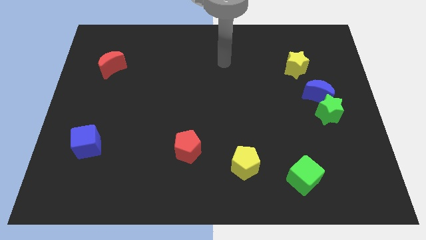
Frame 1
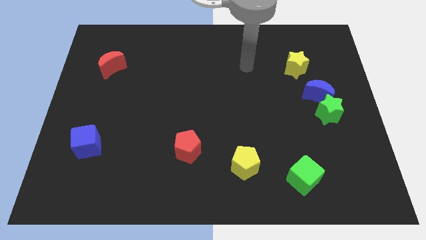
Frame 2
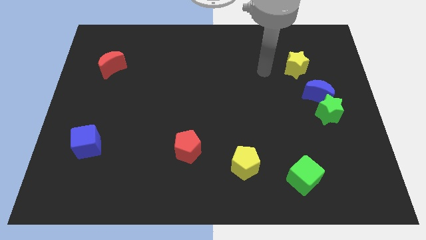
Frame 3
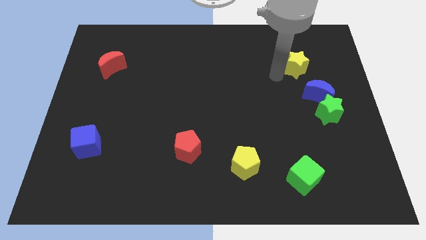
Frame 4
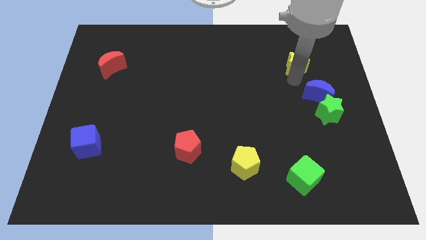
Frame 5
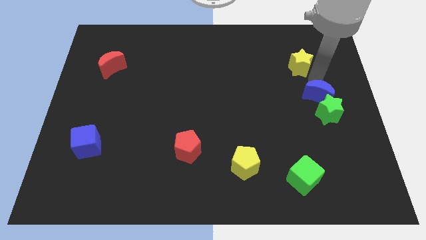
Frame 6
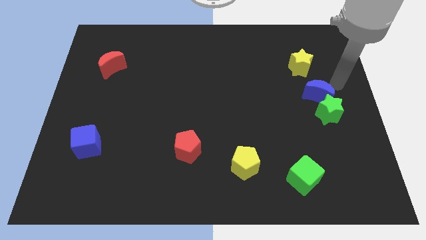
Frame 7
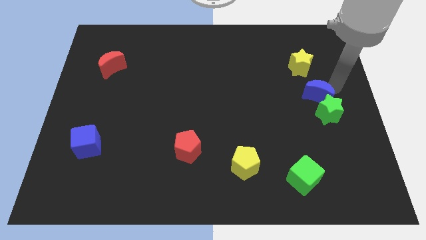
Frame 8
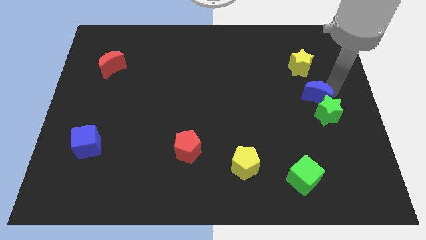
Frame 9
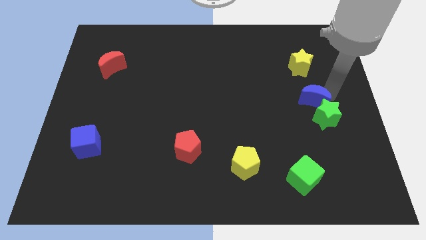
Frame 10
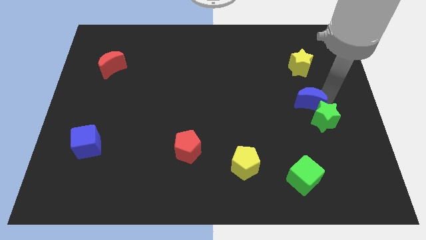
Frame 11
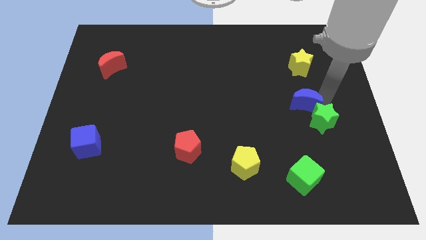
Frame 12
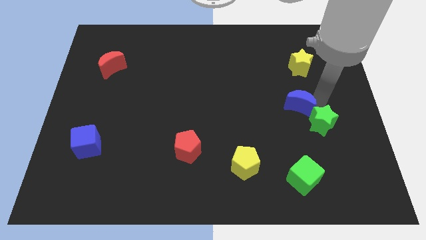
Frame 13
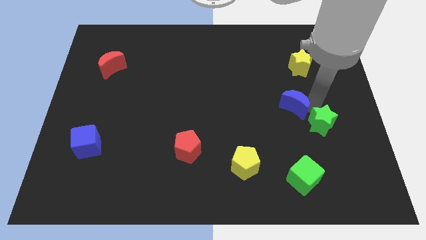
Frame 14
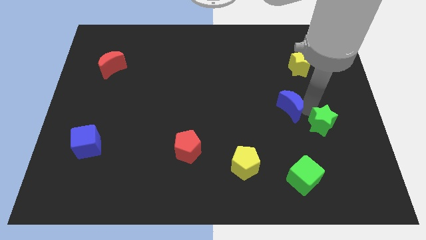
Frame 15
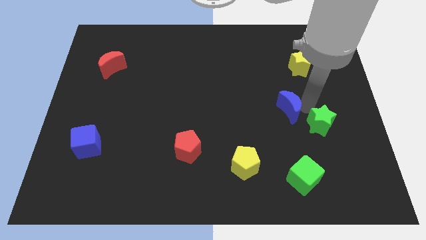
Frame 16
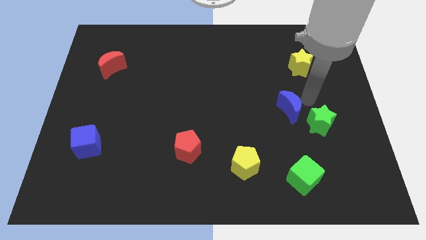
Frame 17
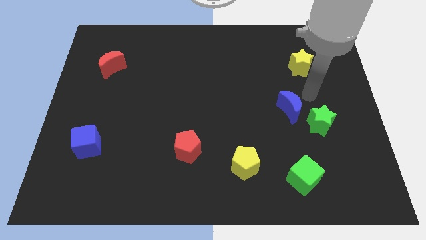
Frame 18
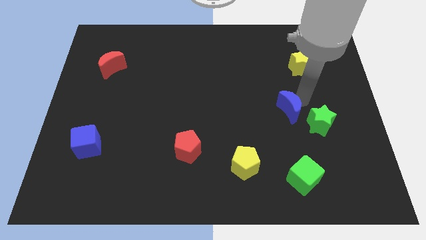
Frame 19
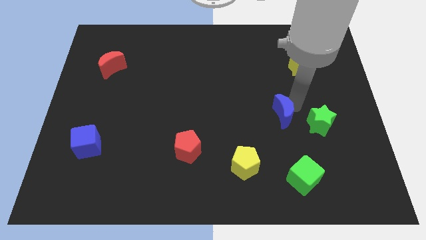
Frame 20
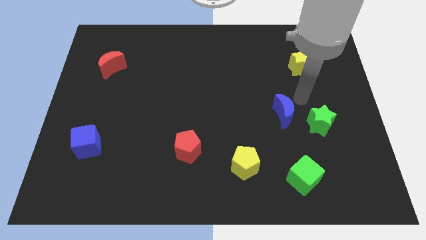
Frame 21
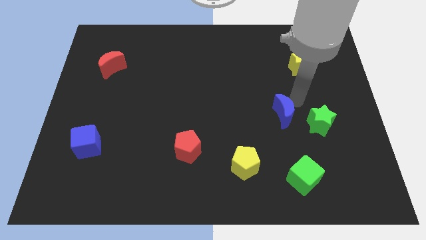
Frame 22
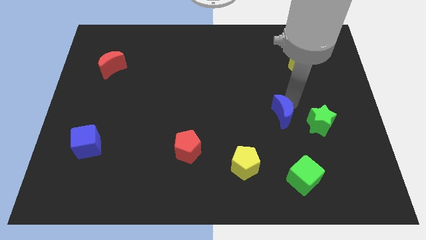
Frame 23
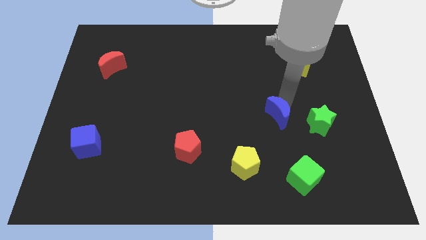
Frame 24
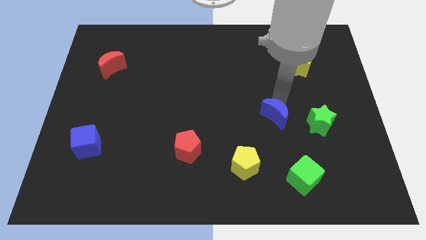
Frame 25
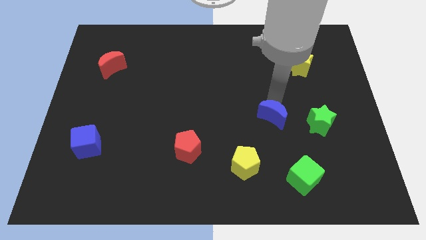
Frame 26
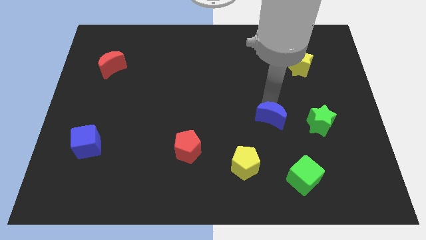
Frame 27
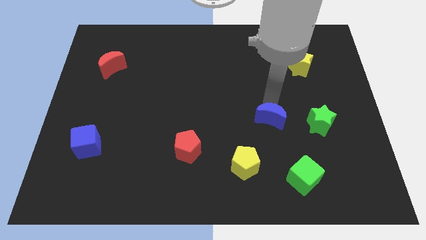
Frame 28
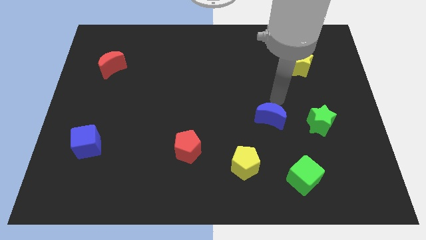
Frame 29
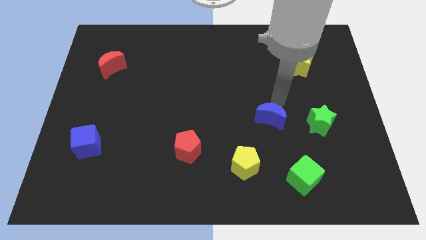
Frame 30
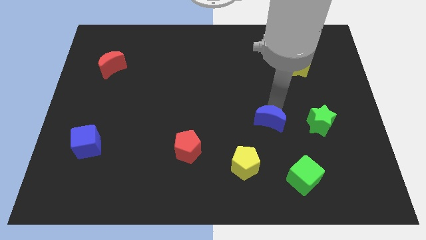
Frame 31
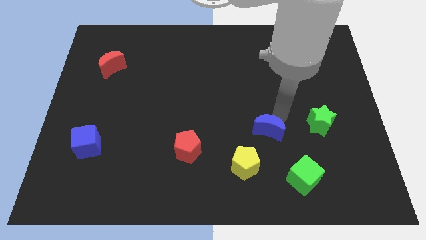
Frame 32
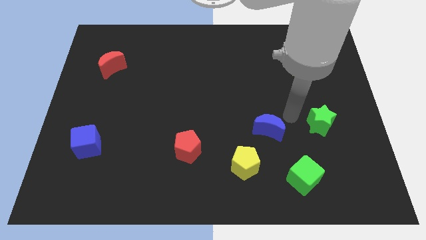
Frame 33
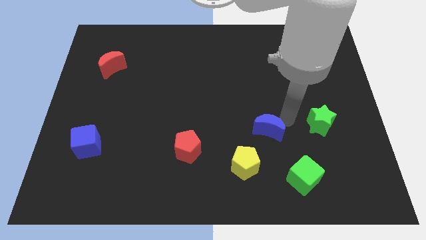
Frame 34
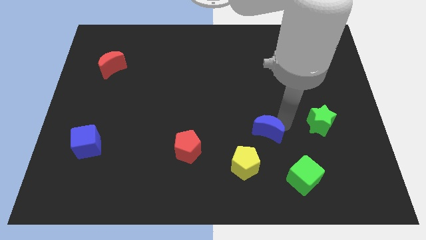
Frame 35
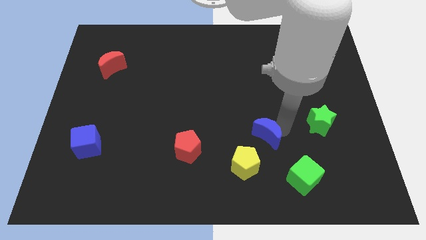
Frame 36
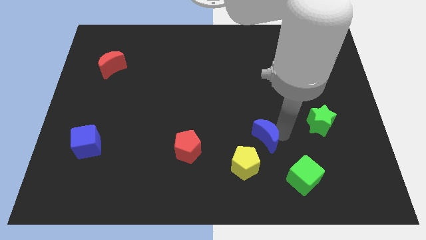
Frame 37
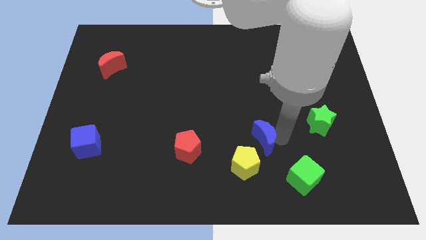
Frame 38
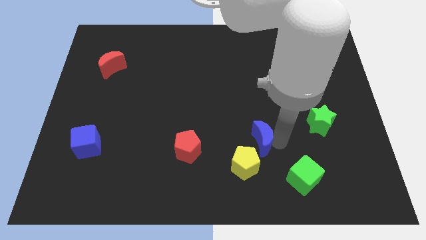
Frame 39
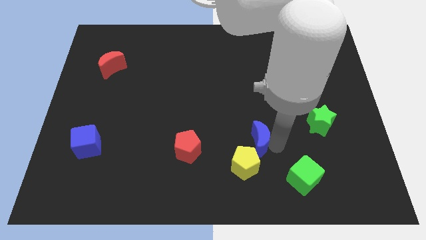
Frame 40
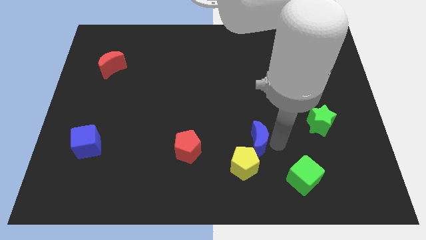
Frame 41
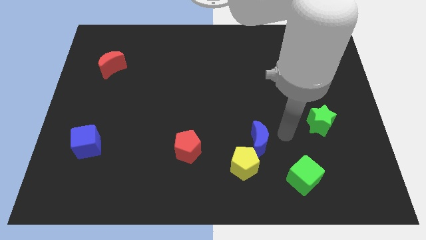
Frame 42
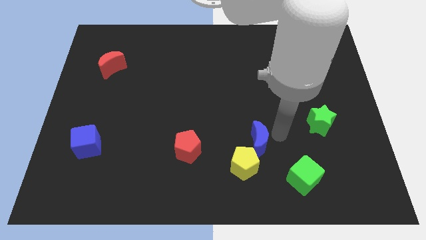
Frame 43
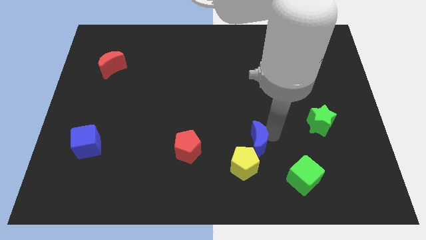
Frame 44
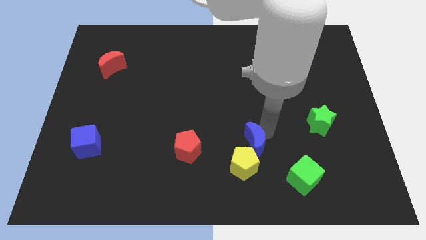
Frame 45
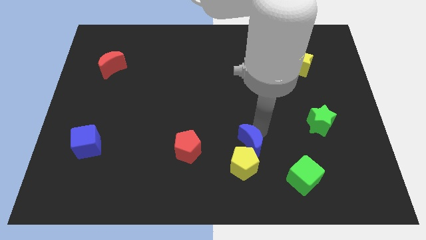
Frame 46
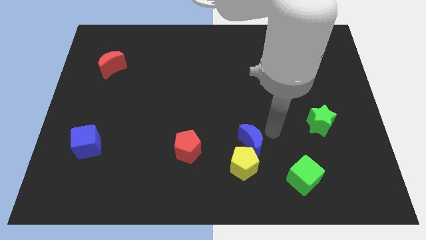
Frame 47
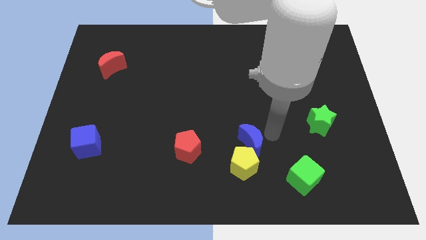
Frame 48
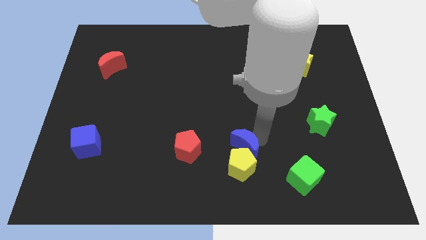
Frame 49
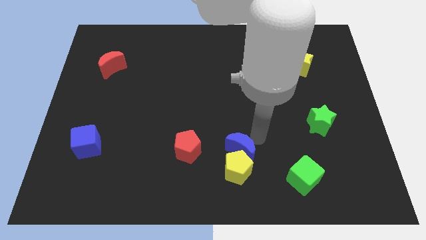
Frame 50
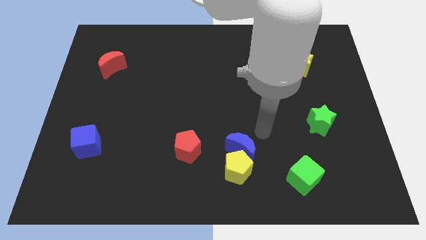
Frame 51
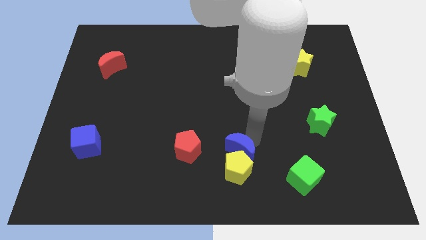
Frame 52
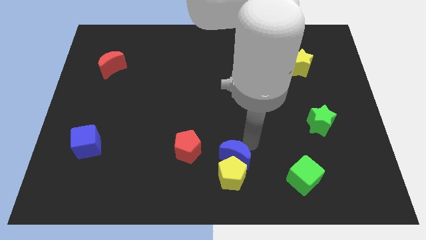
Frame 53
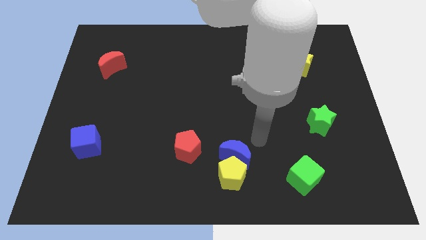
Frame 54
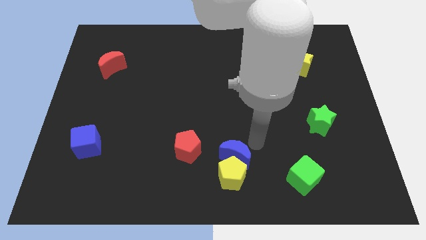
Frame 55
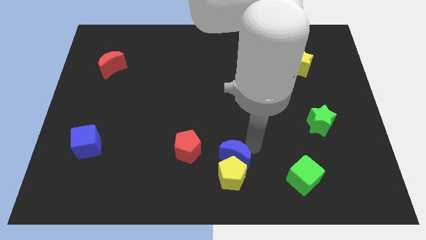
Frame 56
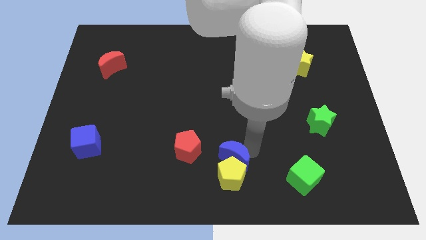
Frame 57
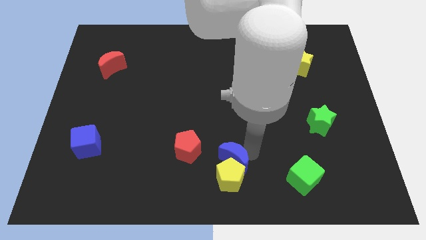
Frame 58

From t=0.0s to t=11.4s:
slide the blue moon just left of the green cube

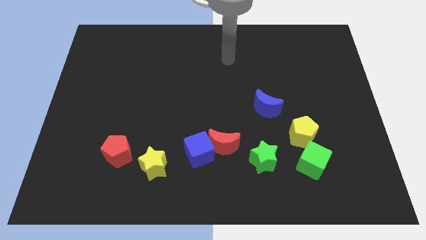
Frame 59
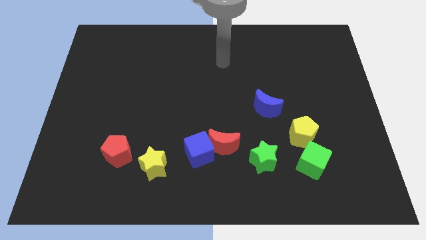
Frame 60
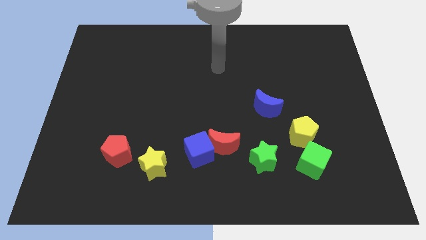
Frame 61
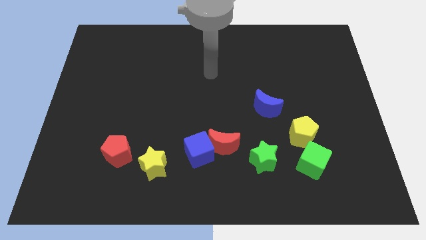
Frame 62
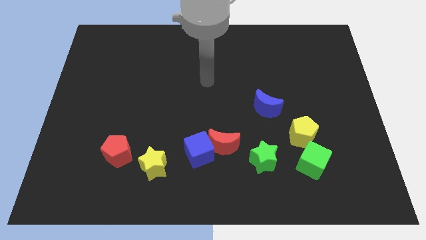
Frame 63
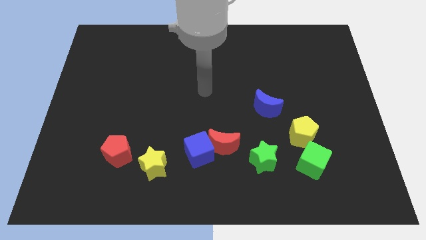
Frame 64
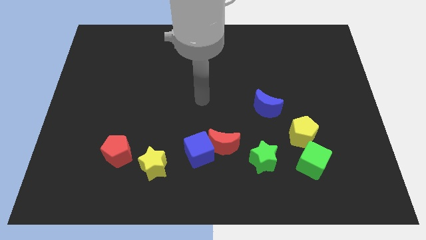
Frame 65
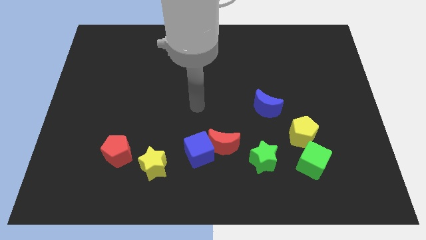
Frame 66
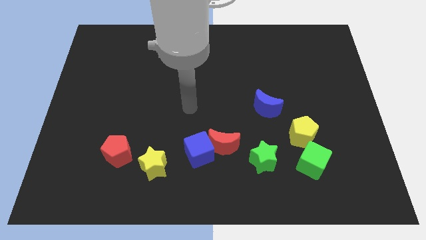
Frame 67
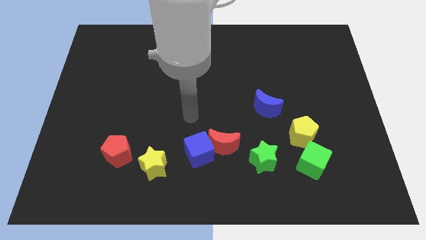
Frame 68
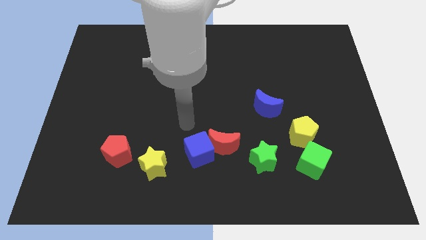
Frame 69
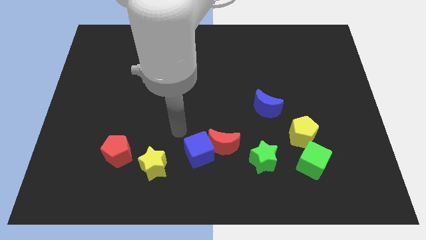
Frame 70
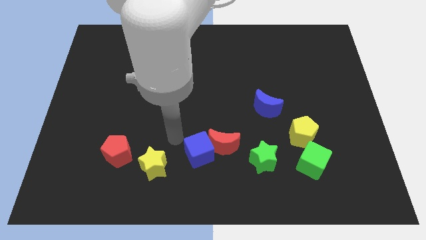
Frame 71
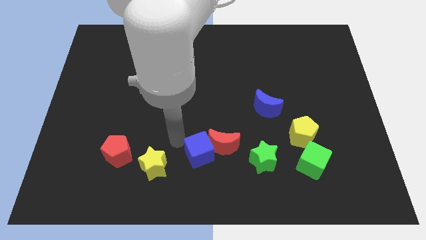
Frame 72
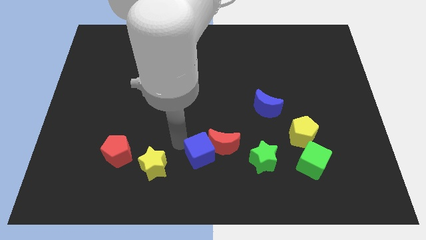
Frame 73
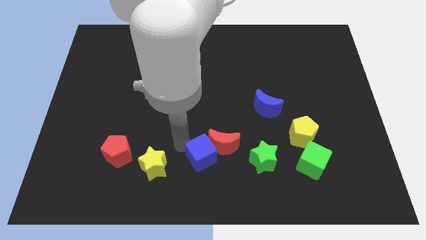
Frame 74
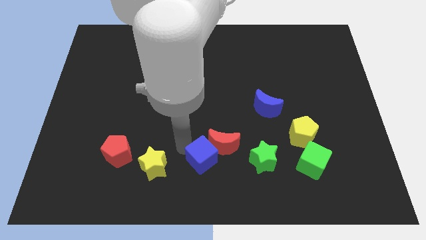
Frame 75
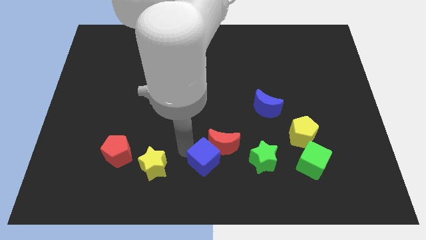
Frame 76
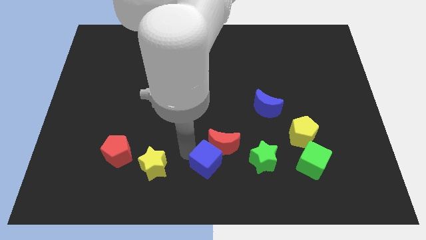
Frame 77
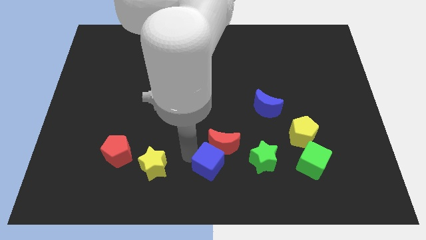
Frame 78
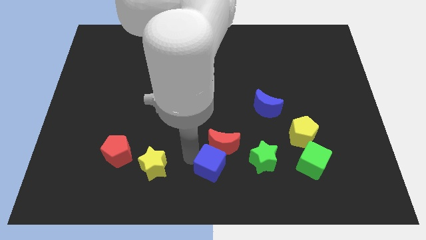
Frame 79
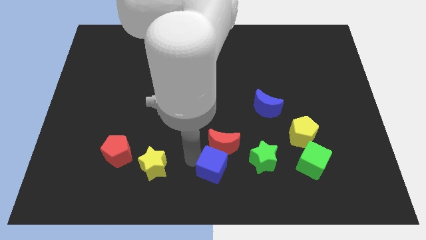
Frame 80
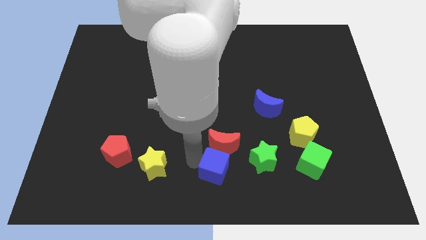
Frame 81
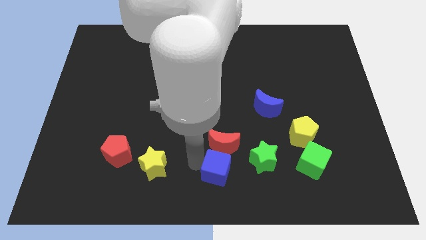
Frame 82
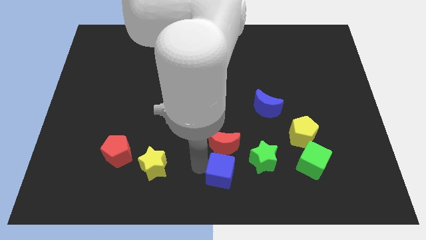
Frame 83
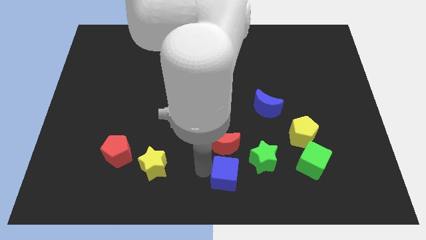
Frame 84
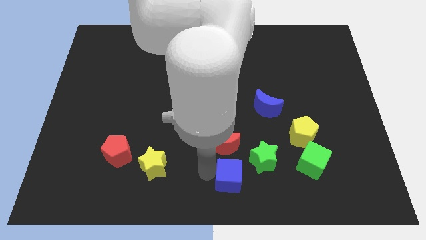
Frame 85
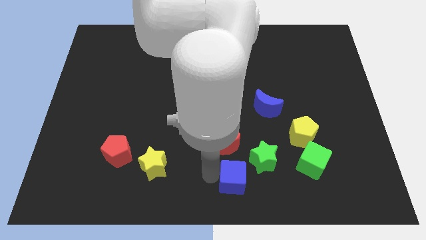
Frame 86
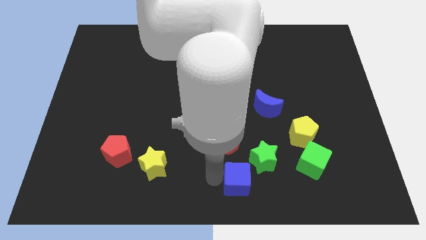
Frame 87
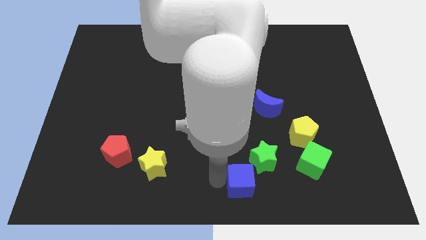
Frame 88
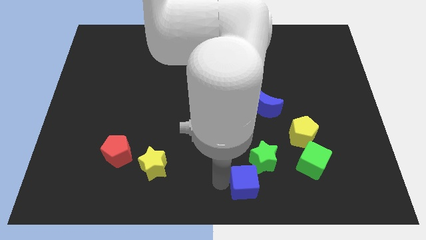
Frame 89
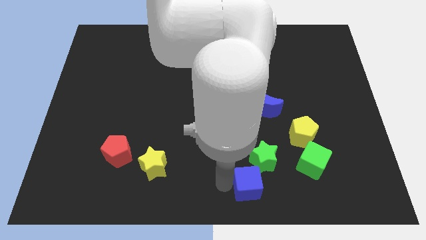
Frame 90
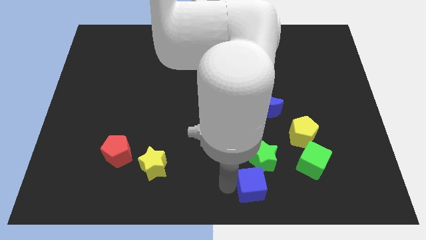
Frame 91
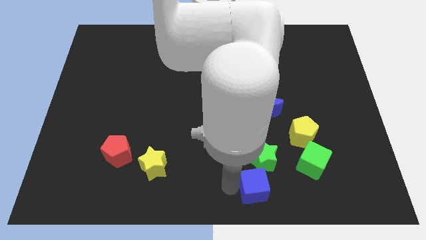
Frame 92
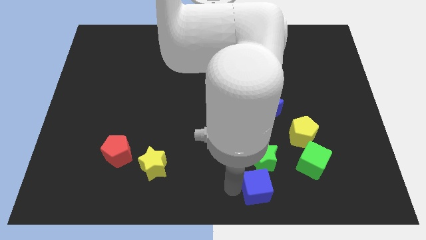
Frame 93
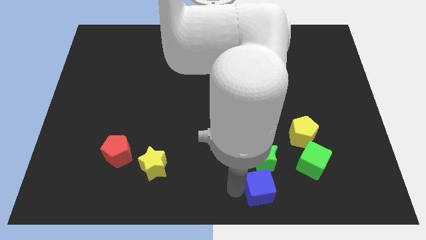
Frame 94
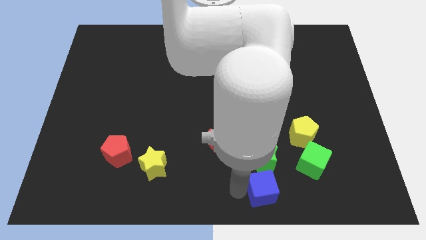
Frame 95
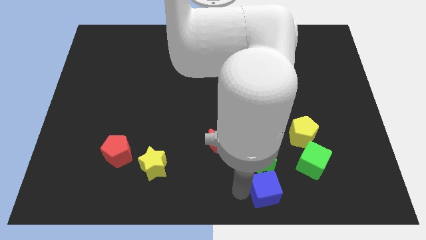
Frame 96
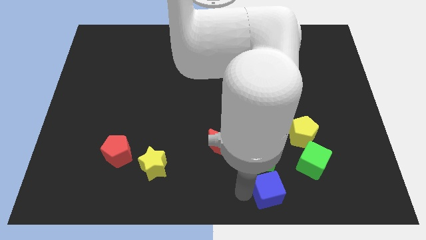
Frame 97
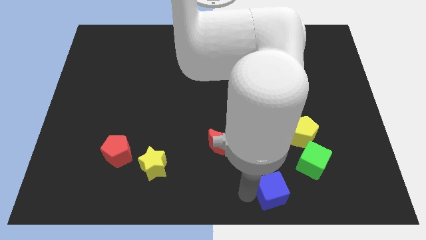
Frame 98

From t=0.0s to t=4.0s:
slide the blue cube diagonally down and to the right of the green star
